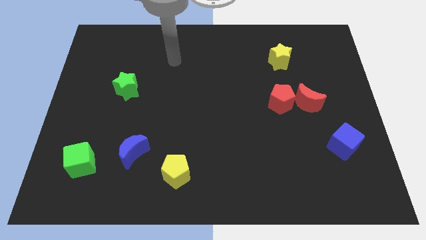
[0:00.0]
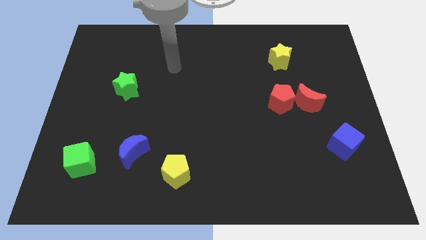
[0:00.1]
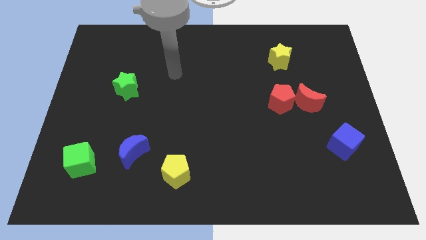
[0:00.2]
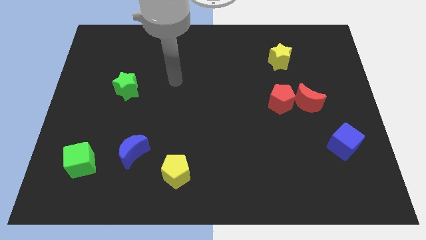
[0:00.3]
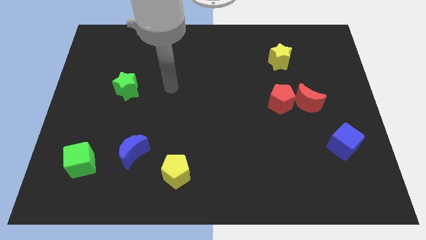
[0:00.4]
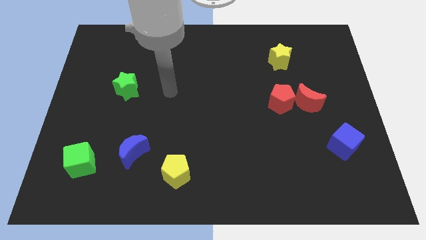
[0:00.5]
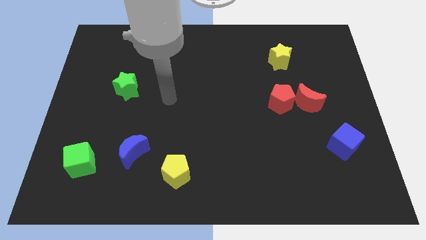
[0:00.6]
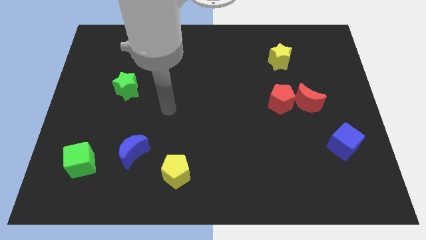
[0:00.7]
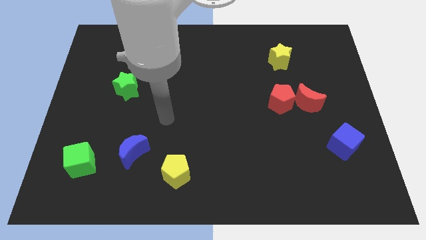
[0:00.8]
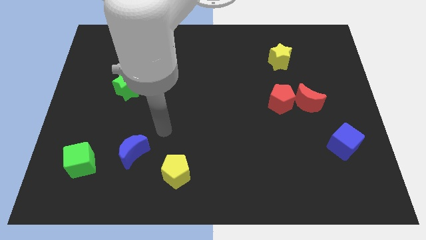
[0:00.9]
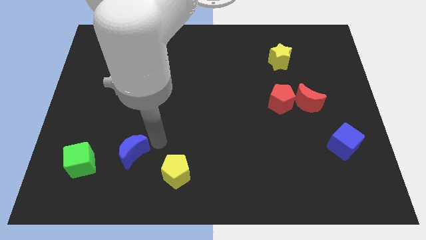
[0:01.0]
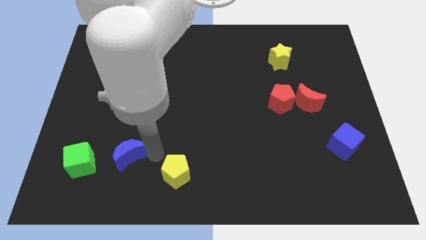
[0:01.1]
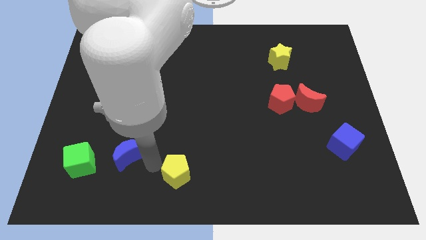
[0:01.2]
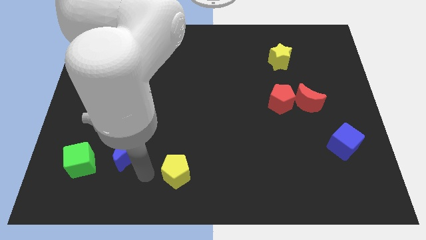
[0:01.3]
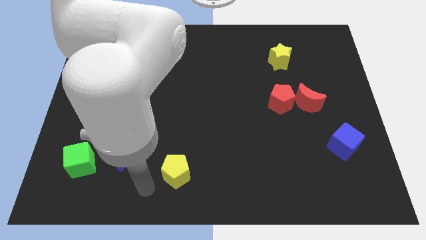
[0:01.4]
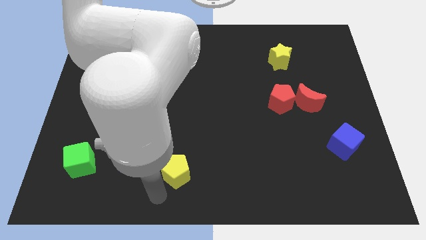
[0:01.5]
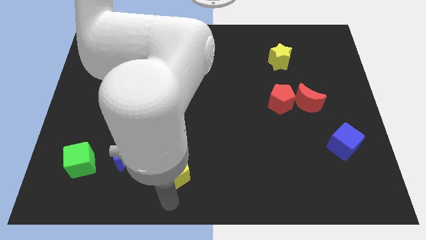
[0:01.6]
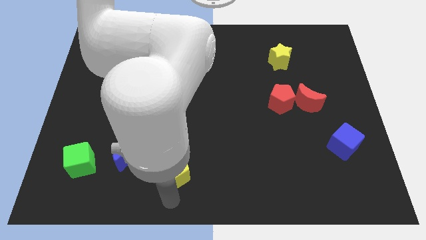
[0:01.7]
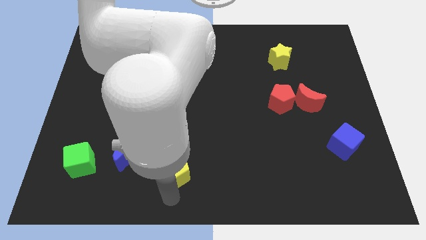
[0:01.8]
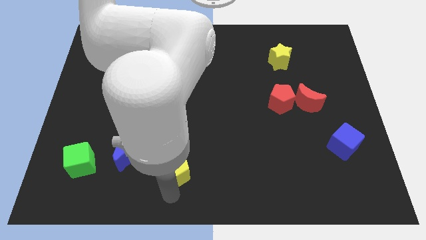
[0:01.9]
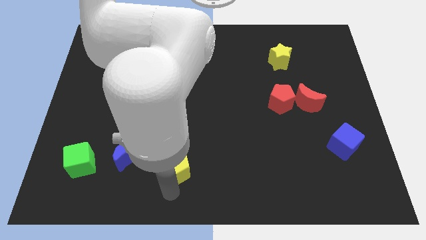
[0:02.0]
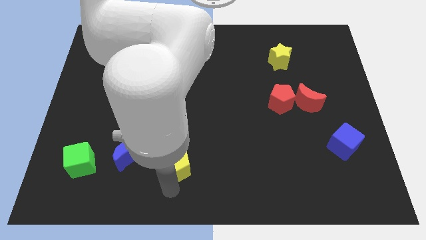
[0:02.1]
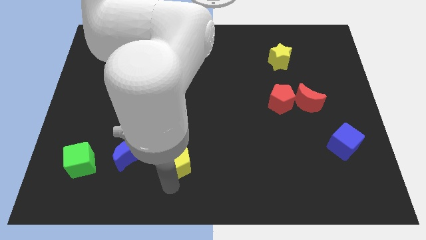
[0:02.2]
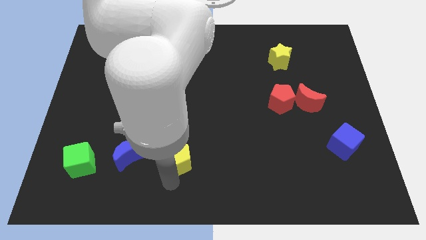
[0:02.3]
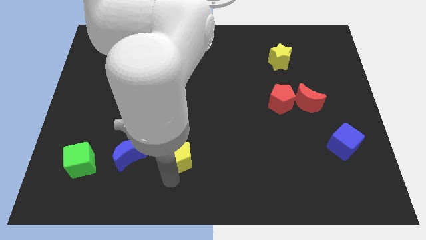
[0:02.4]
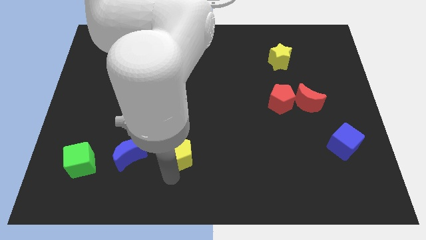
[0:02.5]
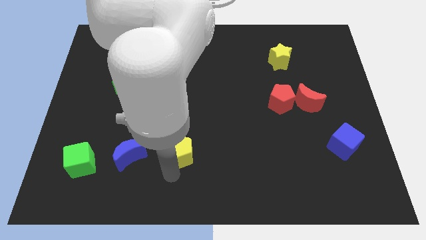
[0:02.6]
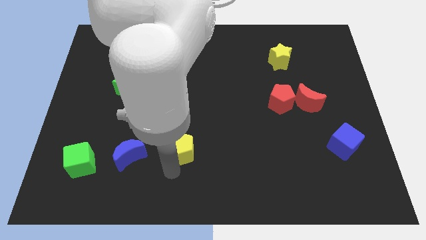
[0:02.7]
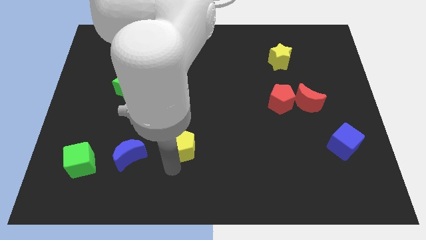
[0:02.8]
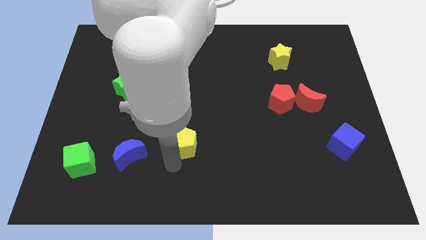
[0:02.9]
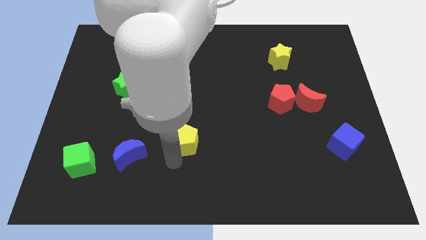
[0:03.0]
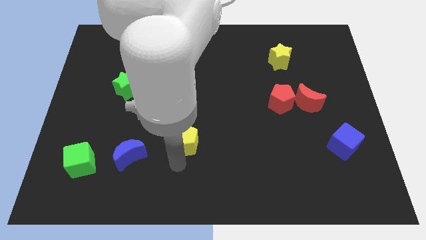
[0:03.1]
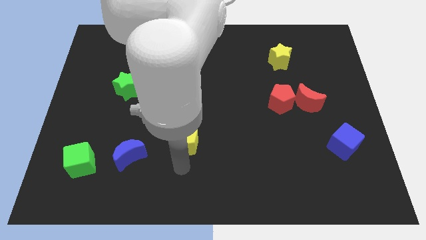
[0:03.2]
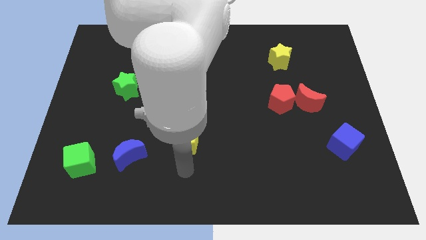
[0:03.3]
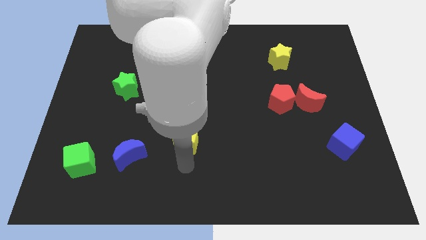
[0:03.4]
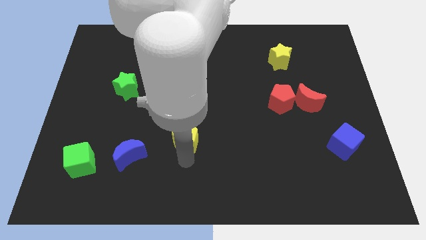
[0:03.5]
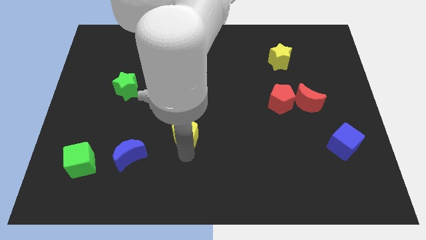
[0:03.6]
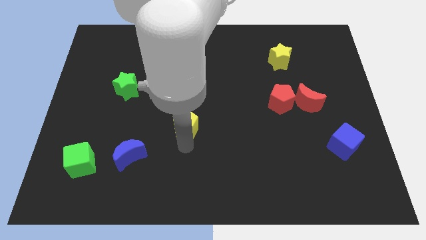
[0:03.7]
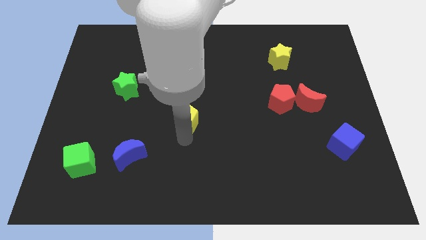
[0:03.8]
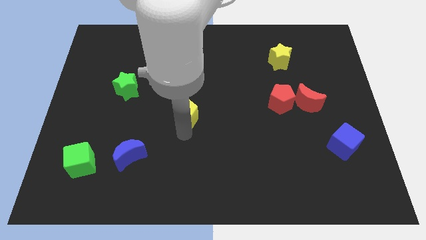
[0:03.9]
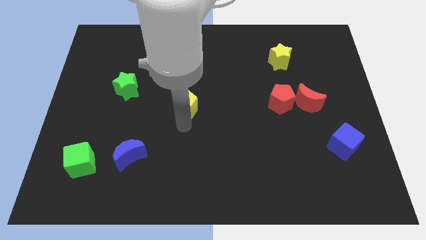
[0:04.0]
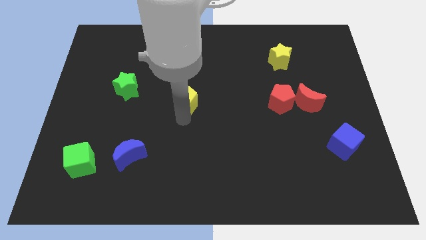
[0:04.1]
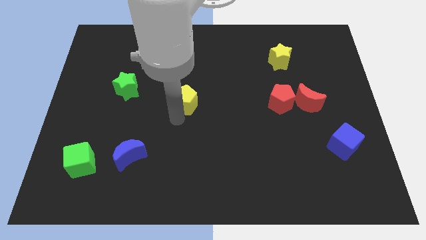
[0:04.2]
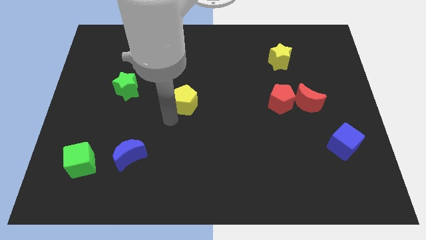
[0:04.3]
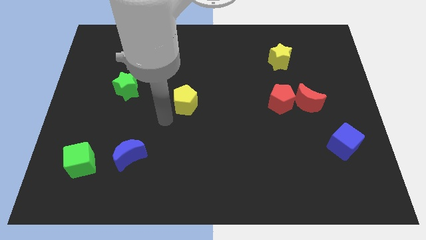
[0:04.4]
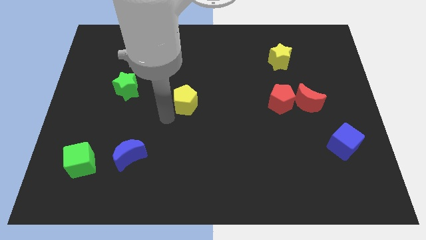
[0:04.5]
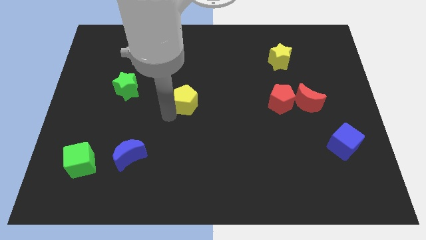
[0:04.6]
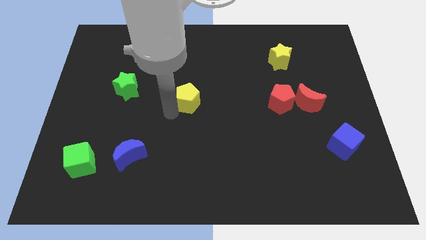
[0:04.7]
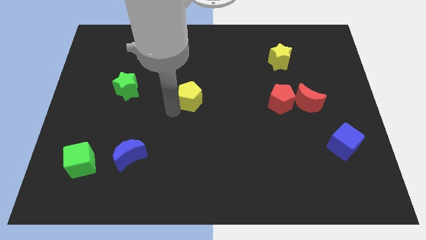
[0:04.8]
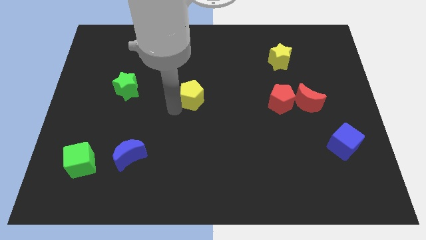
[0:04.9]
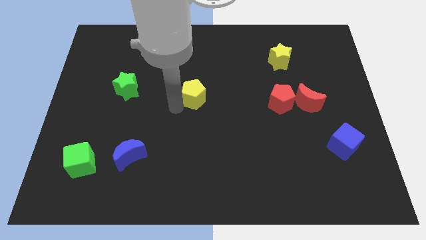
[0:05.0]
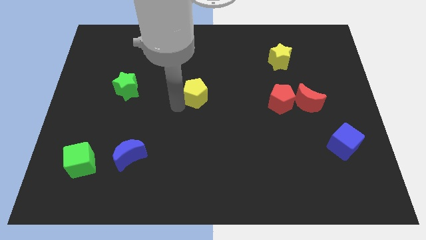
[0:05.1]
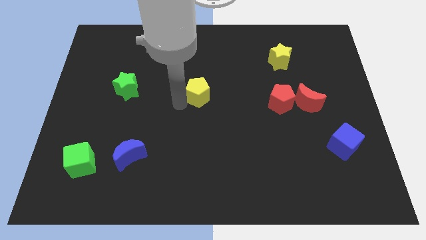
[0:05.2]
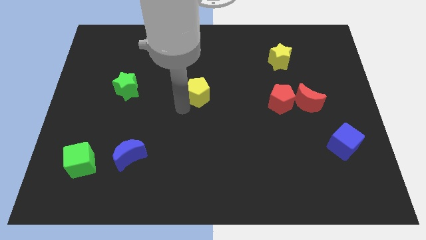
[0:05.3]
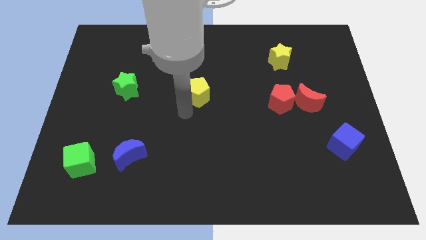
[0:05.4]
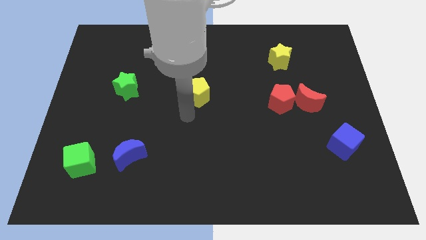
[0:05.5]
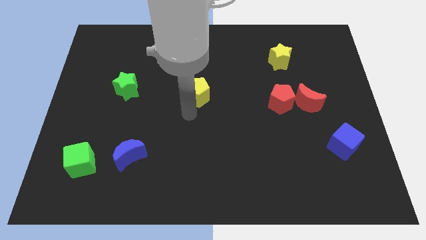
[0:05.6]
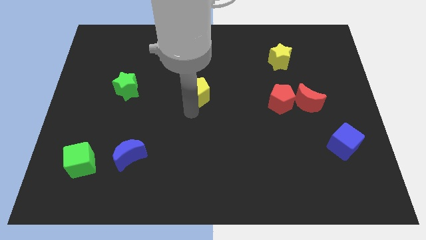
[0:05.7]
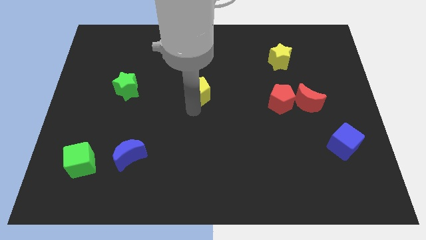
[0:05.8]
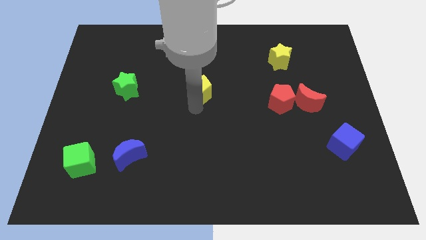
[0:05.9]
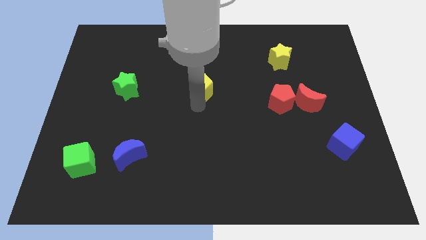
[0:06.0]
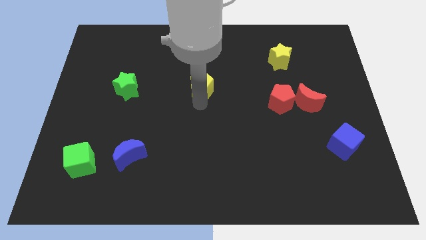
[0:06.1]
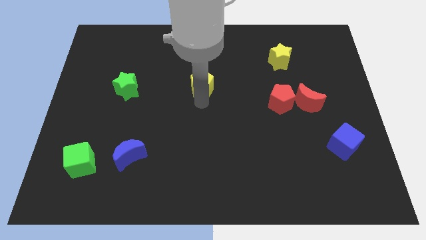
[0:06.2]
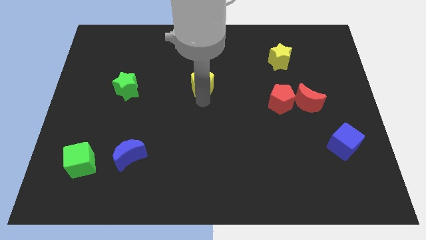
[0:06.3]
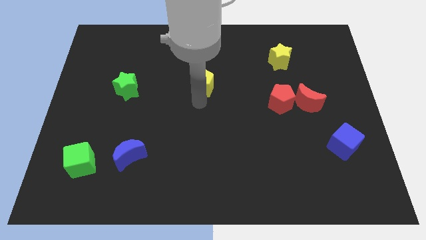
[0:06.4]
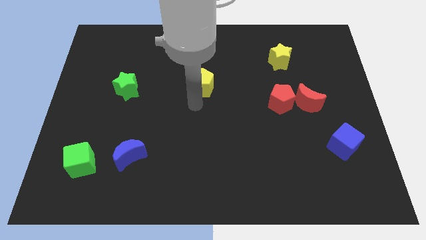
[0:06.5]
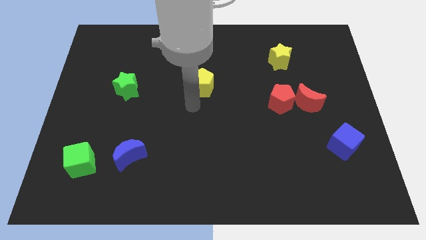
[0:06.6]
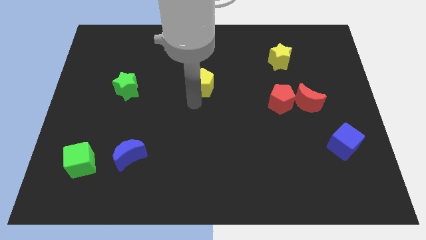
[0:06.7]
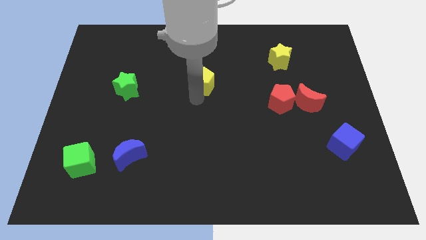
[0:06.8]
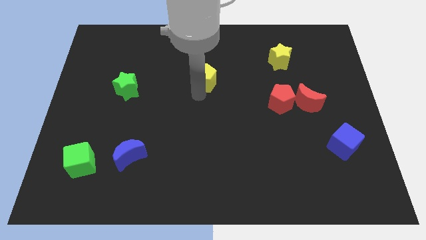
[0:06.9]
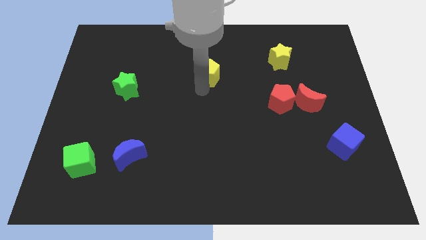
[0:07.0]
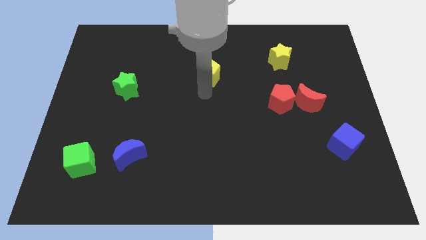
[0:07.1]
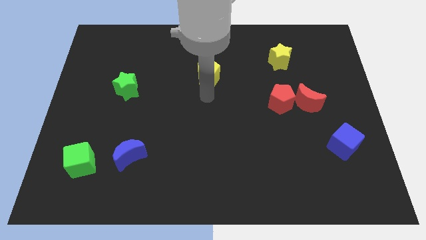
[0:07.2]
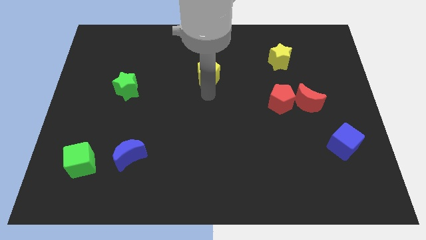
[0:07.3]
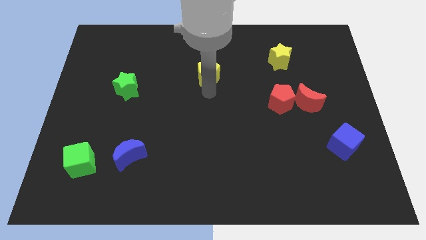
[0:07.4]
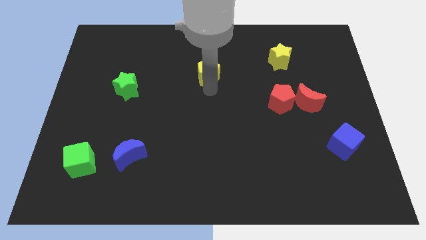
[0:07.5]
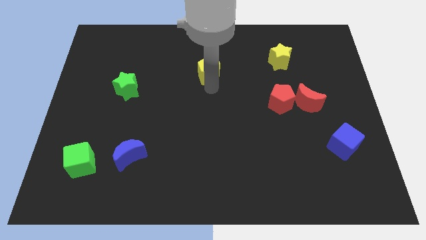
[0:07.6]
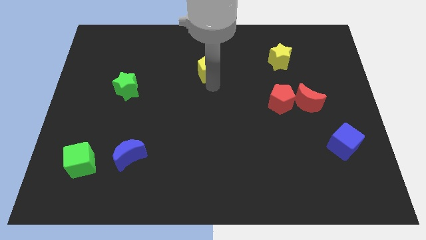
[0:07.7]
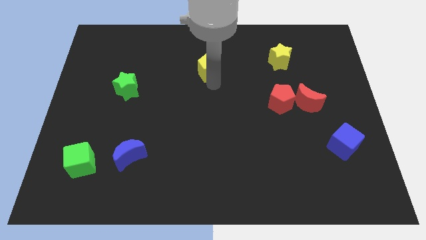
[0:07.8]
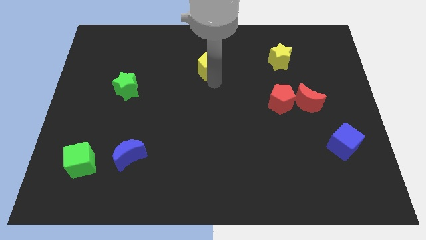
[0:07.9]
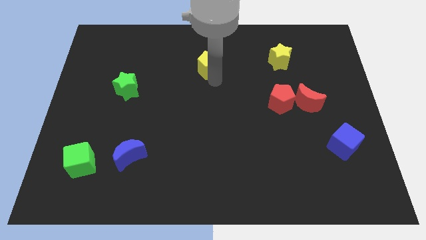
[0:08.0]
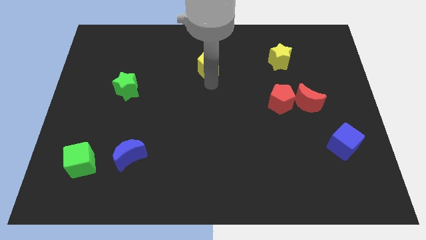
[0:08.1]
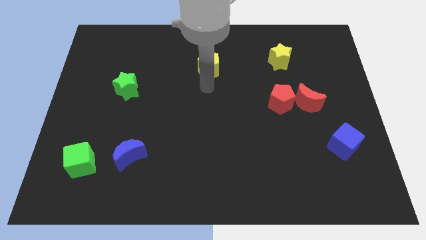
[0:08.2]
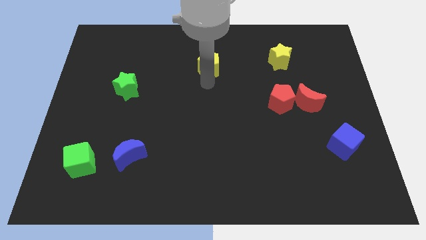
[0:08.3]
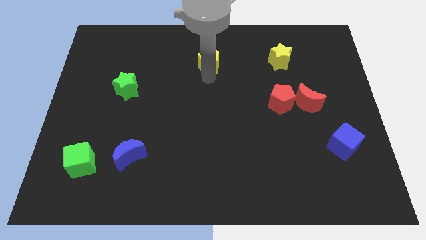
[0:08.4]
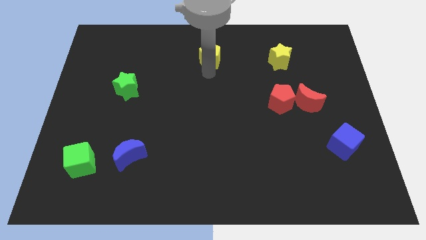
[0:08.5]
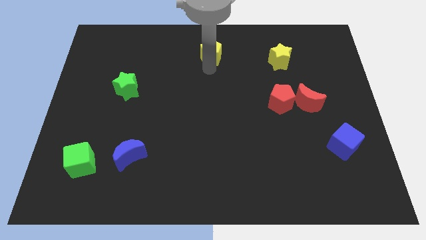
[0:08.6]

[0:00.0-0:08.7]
slide the yellow pentagon to the towards your base
